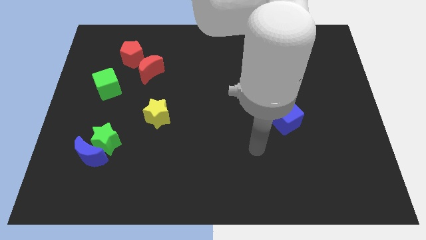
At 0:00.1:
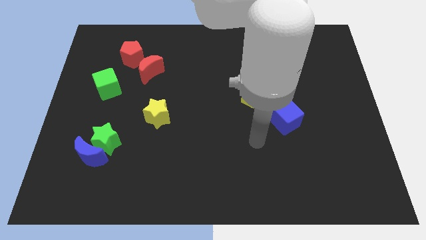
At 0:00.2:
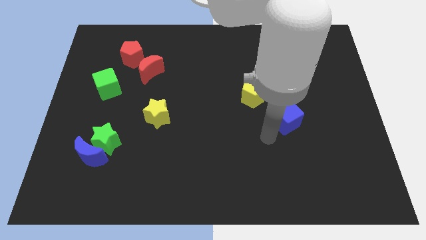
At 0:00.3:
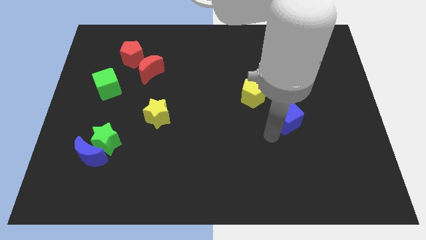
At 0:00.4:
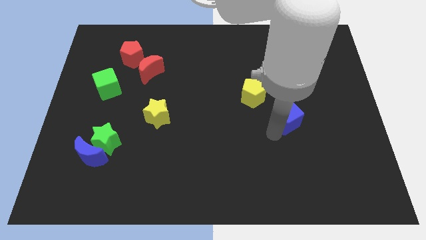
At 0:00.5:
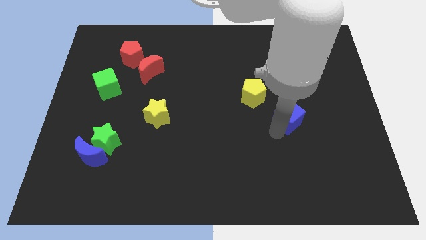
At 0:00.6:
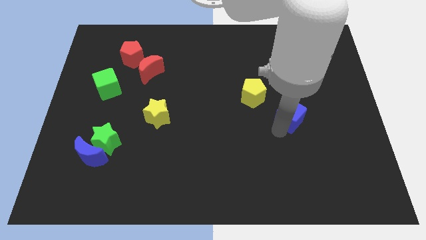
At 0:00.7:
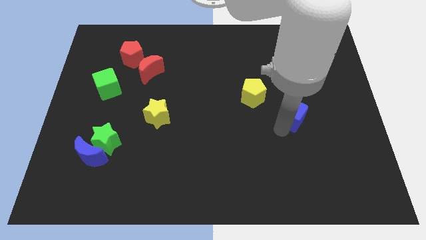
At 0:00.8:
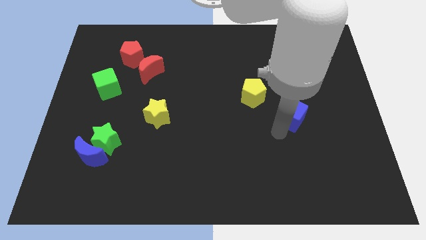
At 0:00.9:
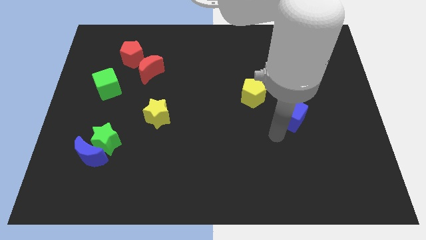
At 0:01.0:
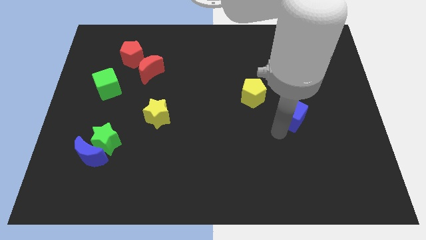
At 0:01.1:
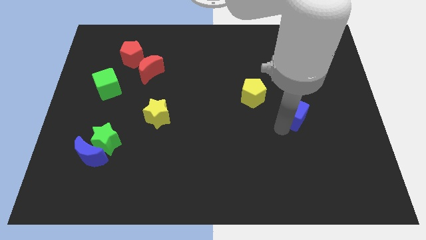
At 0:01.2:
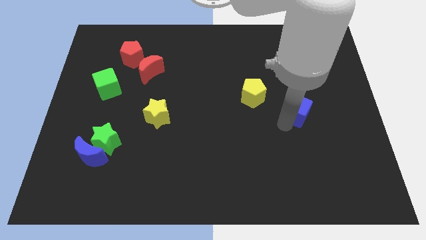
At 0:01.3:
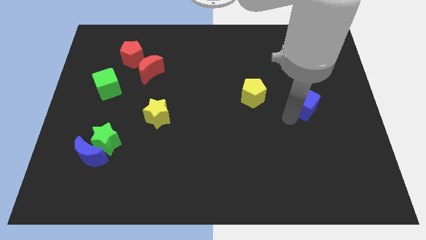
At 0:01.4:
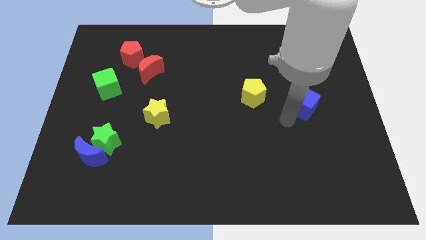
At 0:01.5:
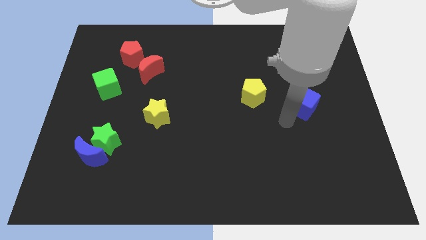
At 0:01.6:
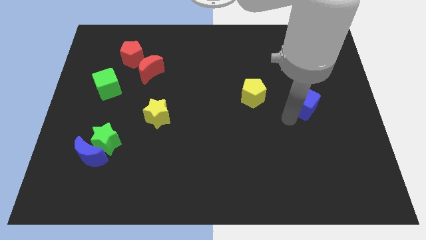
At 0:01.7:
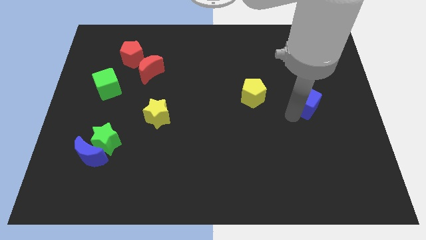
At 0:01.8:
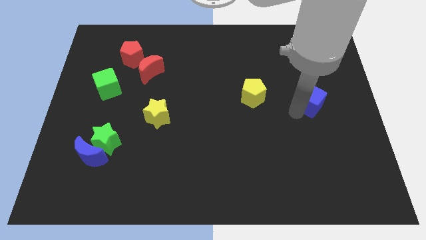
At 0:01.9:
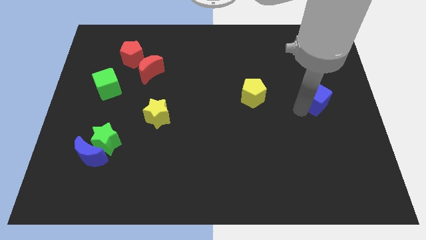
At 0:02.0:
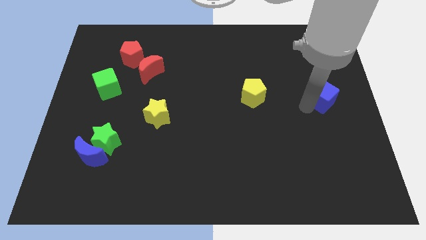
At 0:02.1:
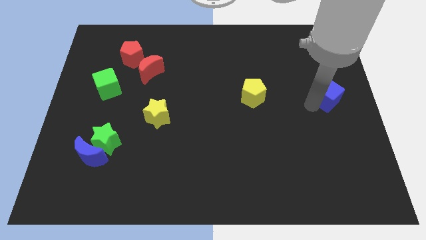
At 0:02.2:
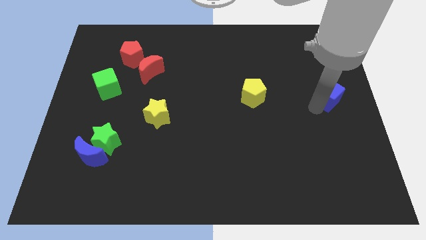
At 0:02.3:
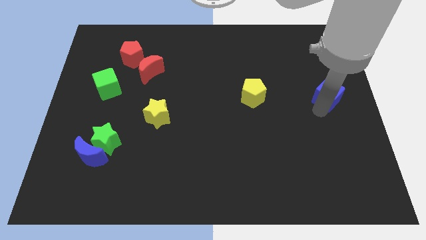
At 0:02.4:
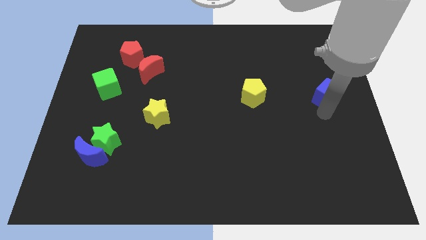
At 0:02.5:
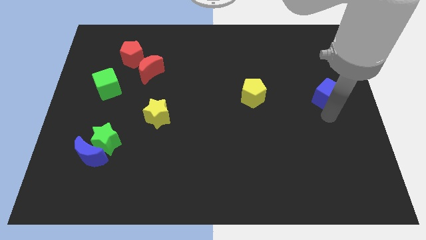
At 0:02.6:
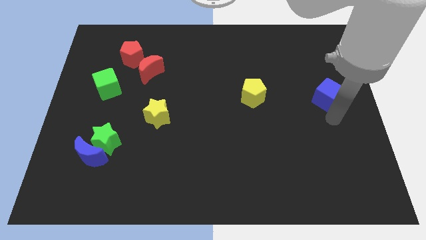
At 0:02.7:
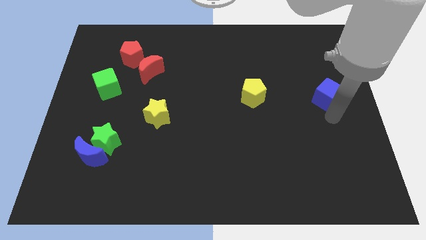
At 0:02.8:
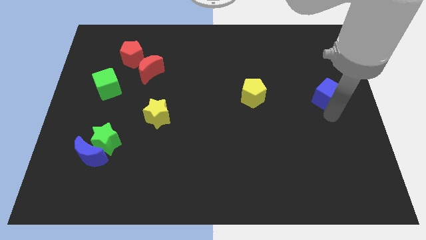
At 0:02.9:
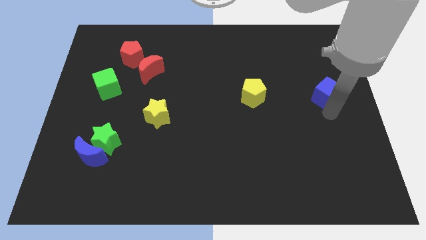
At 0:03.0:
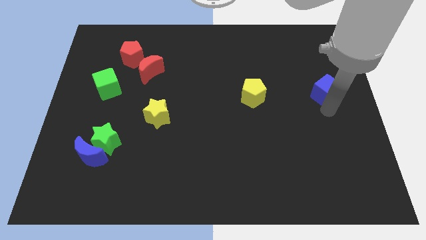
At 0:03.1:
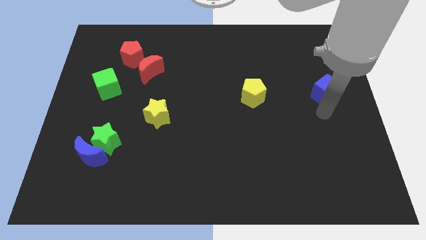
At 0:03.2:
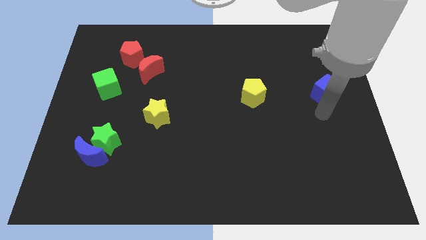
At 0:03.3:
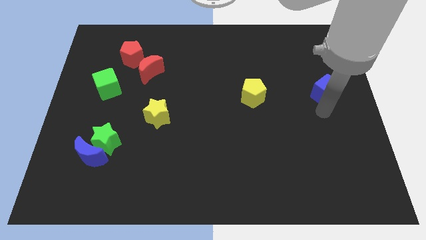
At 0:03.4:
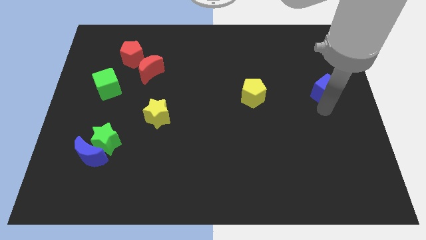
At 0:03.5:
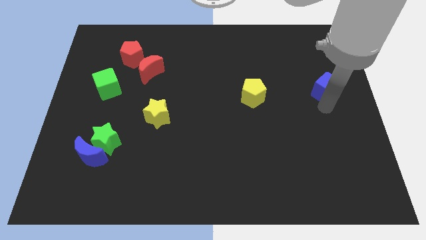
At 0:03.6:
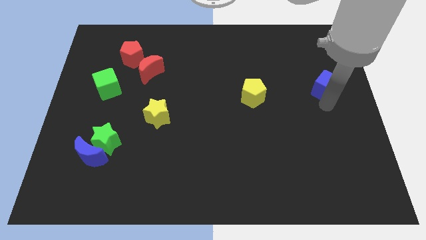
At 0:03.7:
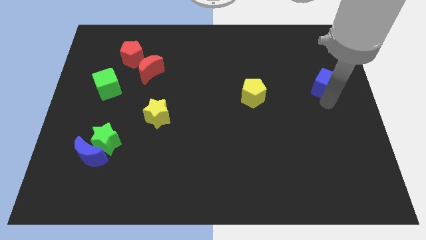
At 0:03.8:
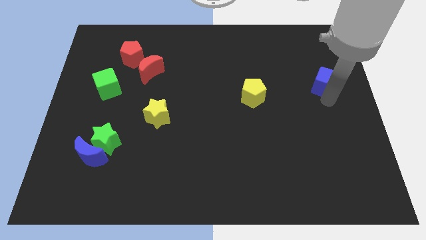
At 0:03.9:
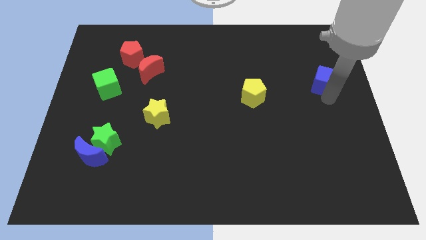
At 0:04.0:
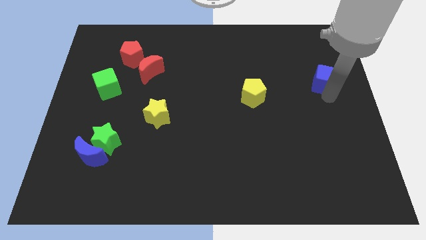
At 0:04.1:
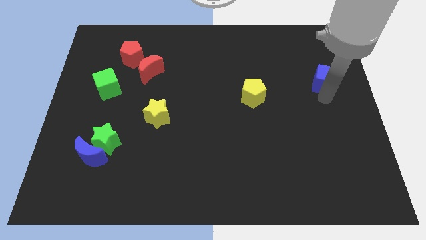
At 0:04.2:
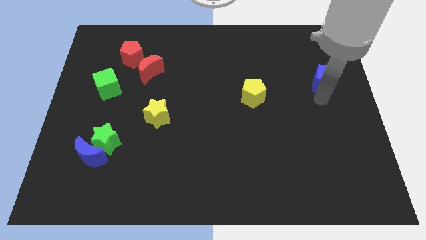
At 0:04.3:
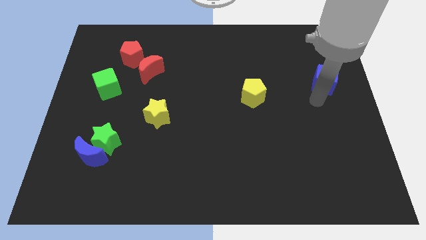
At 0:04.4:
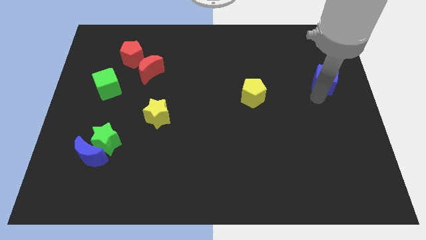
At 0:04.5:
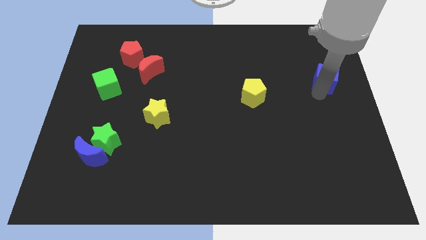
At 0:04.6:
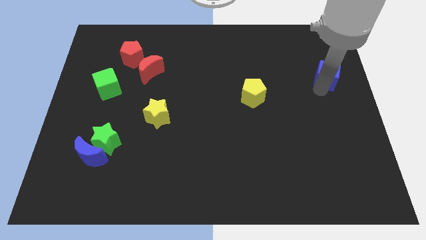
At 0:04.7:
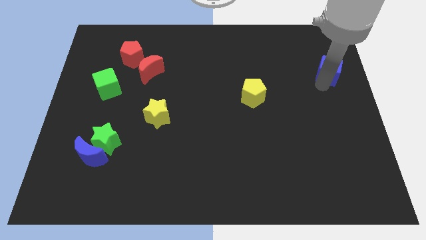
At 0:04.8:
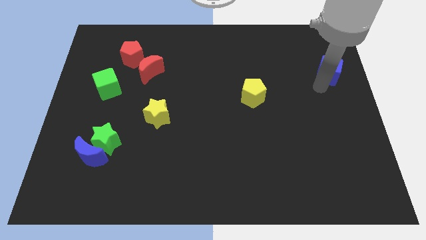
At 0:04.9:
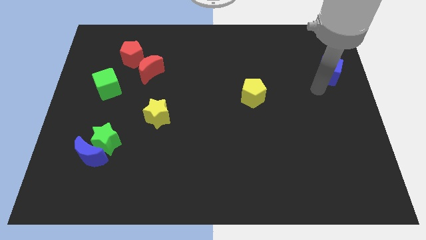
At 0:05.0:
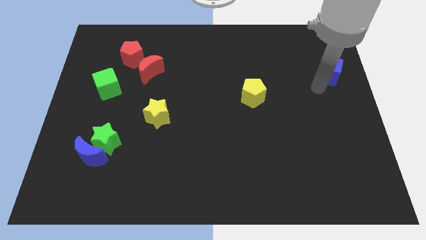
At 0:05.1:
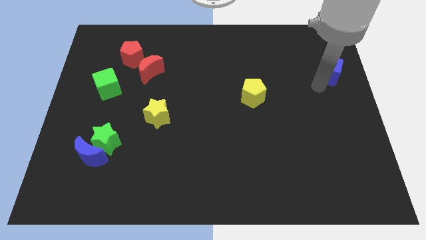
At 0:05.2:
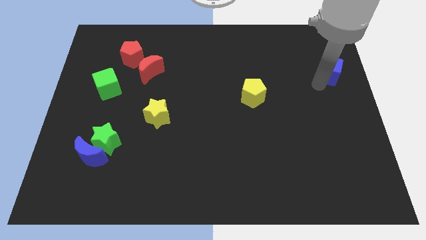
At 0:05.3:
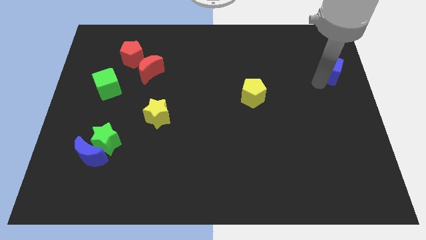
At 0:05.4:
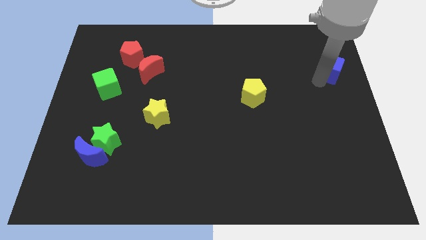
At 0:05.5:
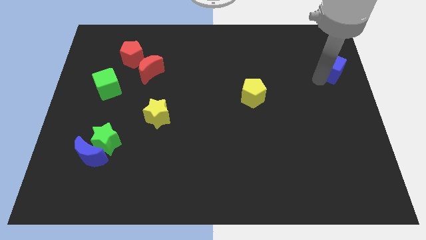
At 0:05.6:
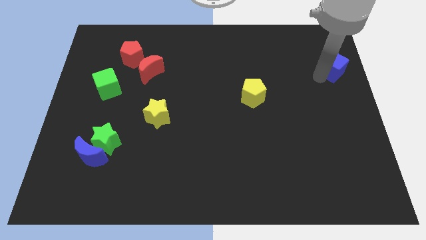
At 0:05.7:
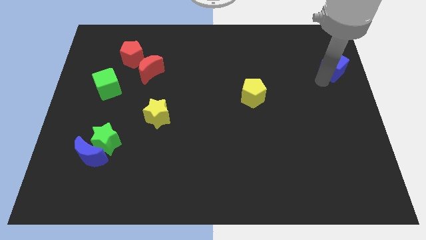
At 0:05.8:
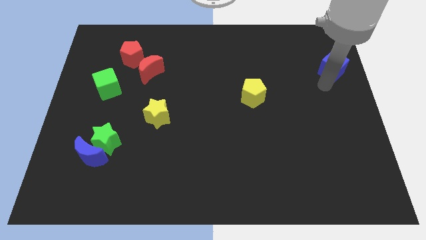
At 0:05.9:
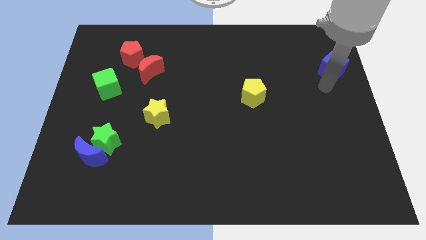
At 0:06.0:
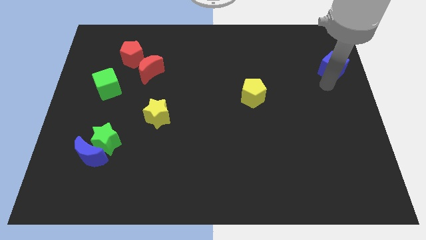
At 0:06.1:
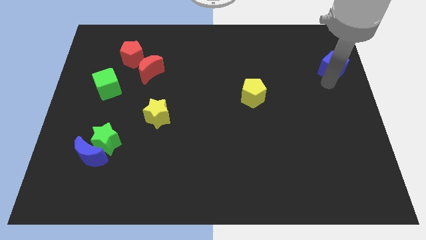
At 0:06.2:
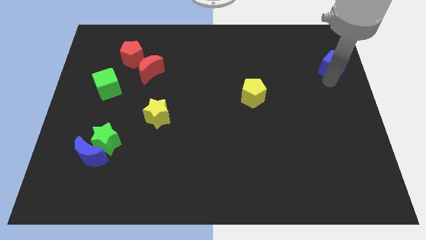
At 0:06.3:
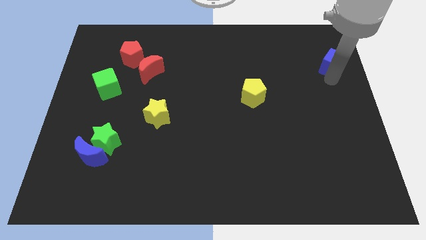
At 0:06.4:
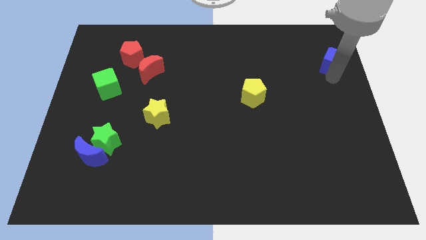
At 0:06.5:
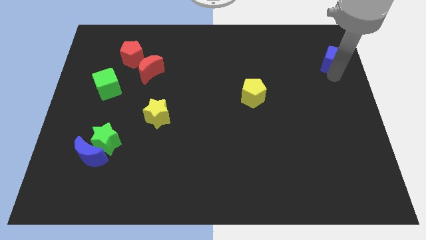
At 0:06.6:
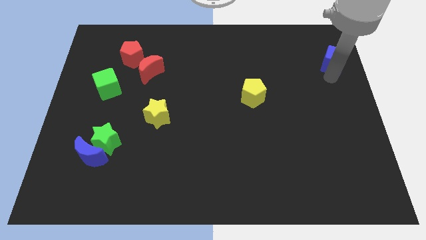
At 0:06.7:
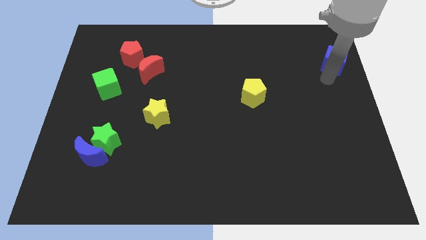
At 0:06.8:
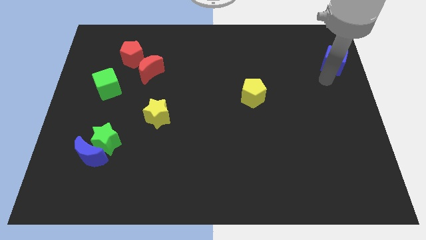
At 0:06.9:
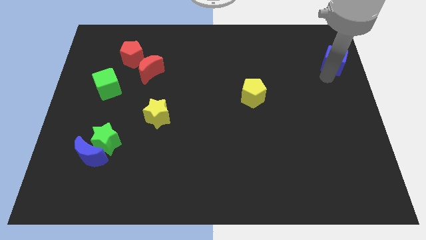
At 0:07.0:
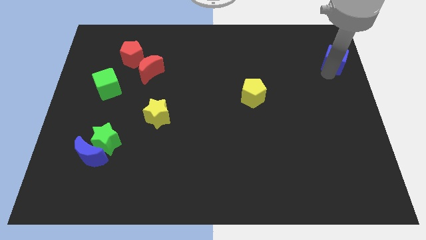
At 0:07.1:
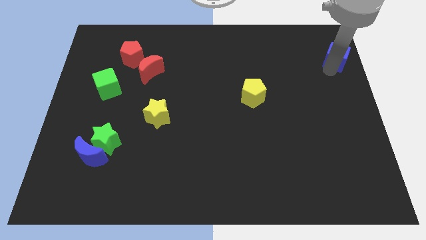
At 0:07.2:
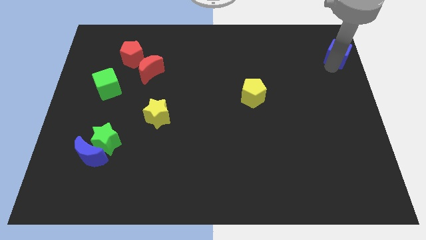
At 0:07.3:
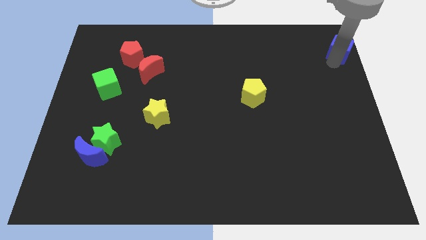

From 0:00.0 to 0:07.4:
push the blue cube to the top right of the board
